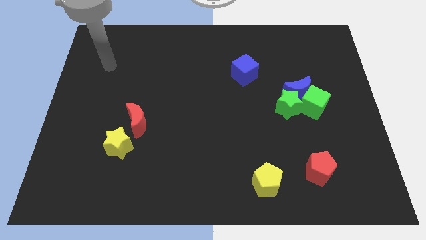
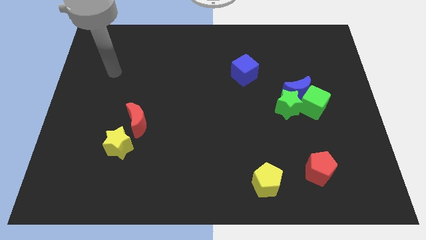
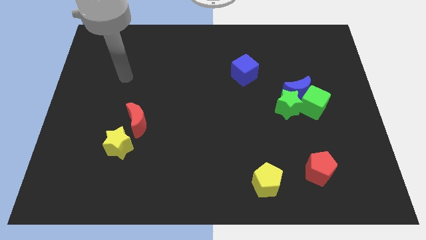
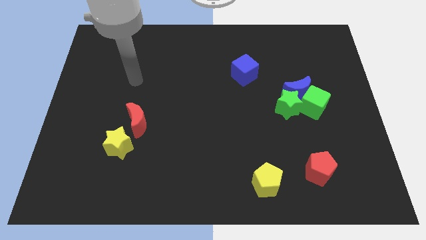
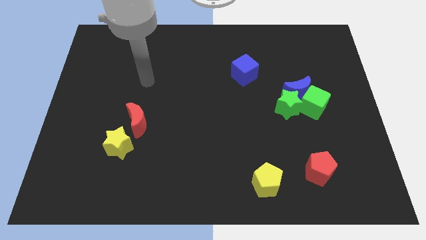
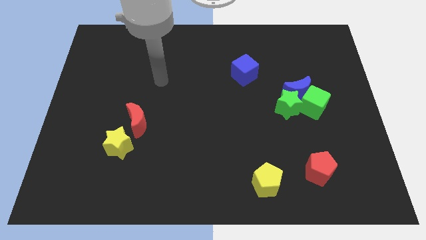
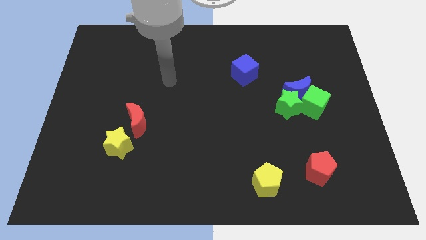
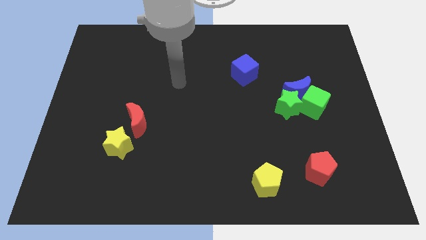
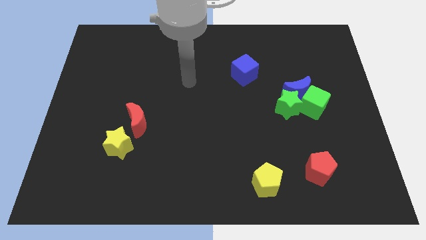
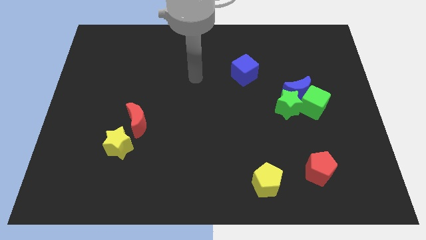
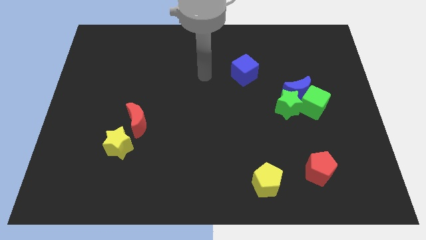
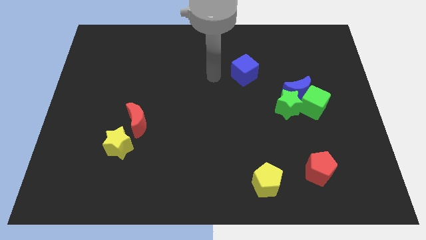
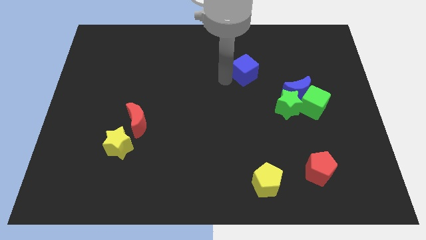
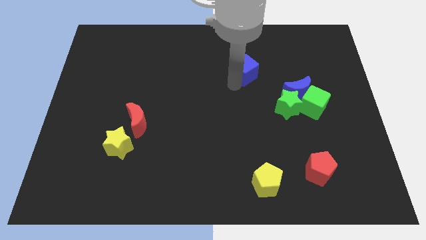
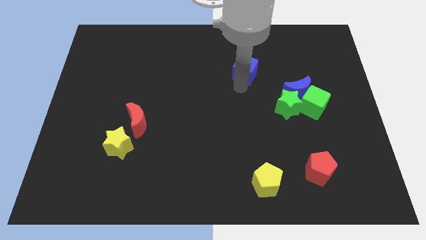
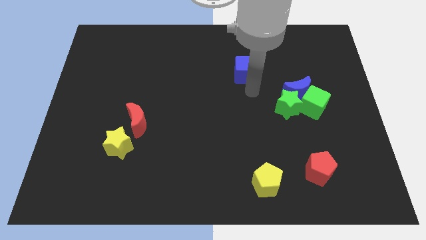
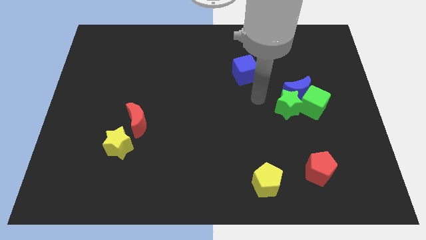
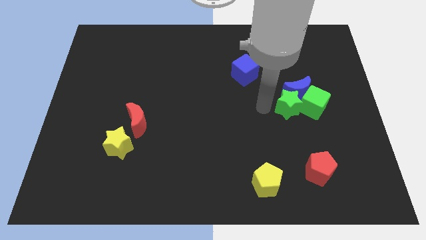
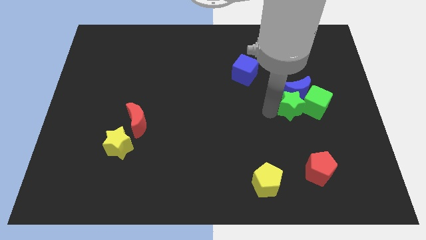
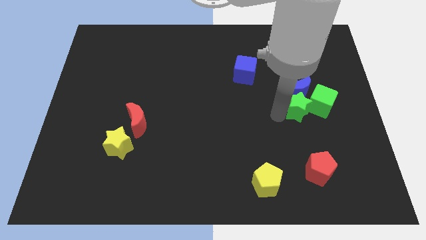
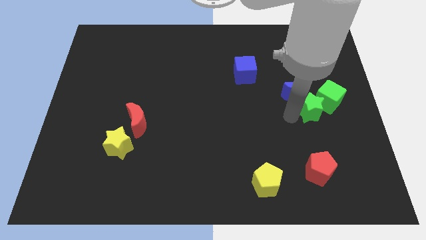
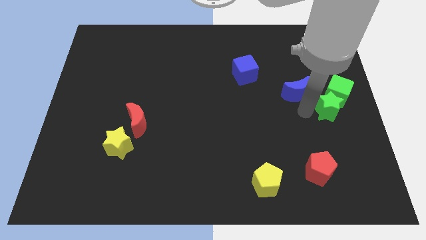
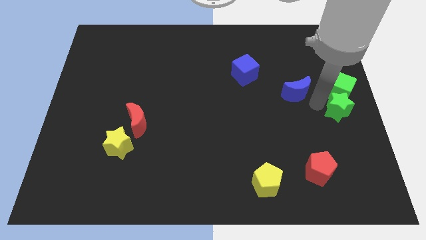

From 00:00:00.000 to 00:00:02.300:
pull the blue moon apart from the green cube and green star

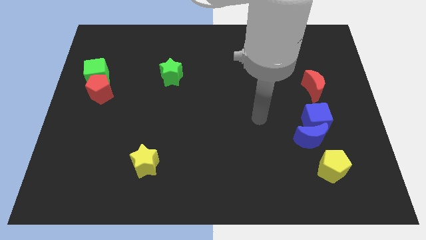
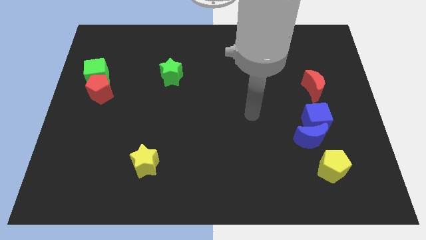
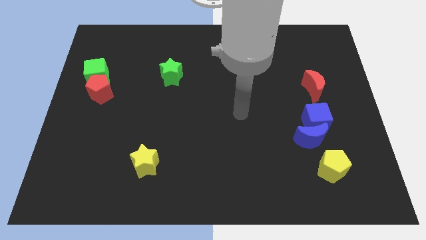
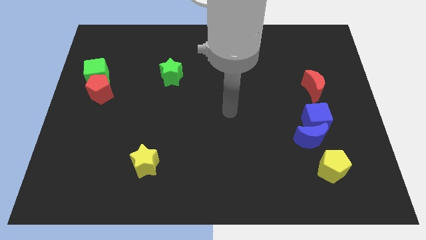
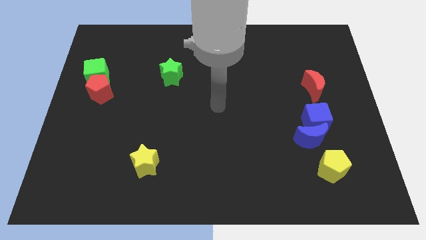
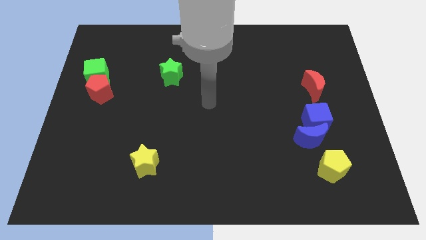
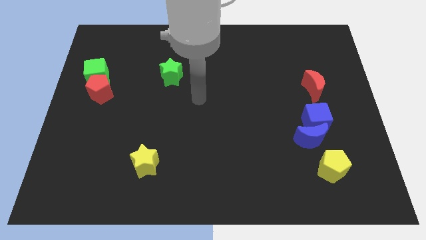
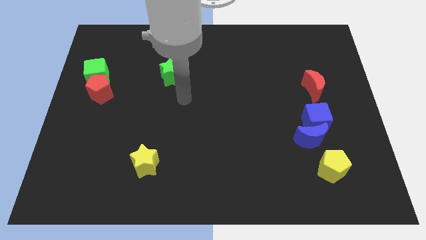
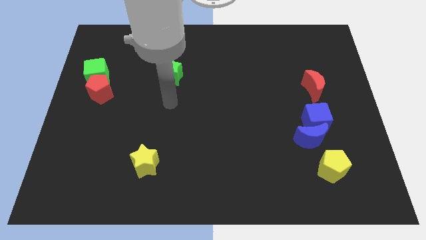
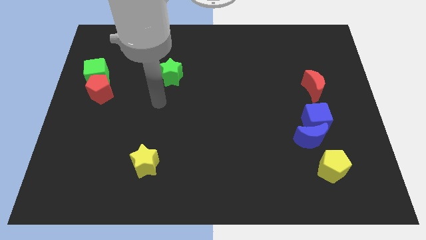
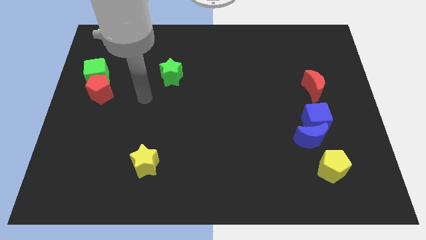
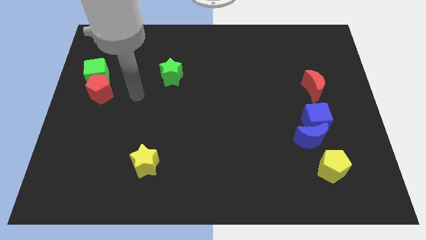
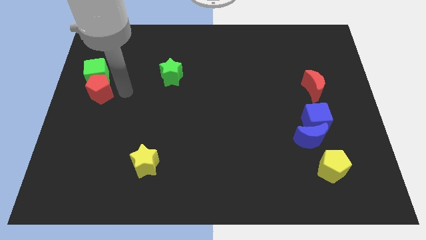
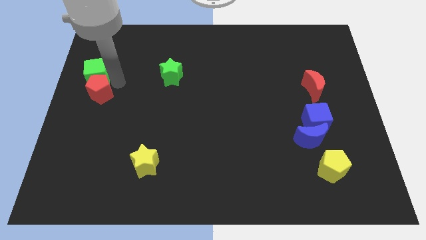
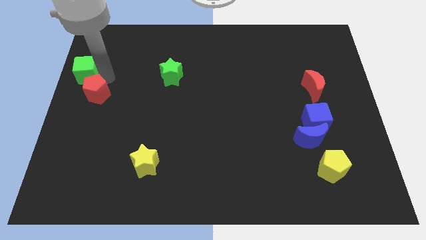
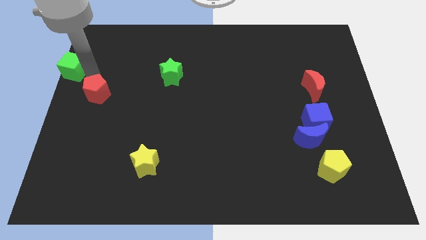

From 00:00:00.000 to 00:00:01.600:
pull the red pentagon apart from the green cube

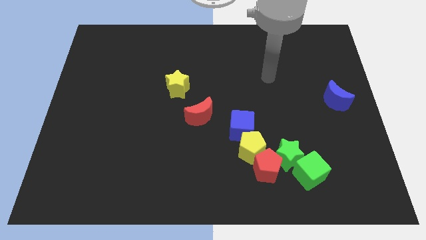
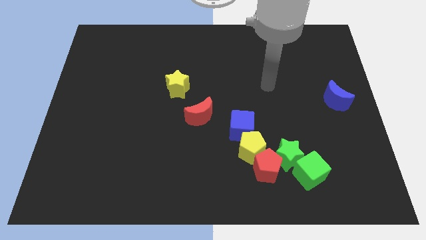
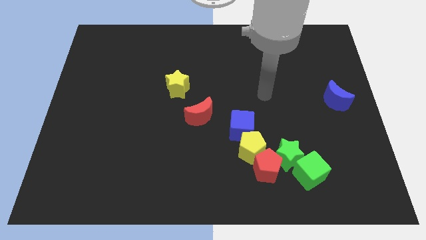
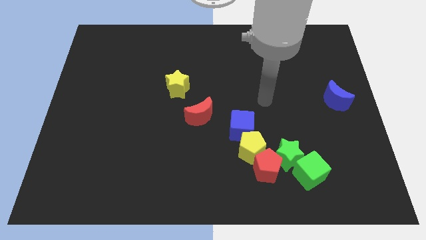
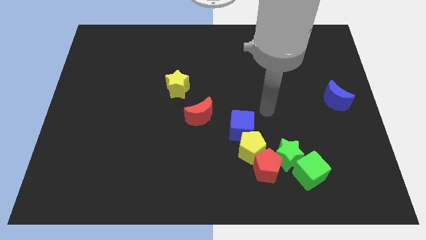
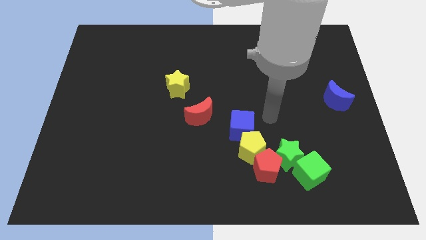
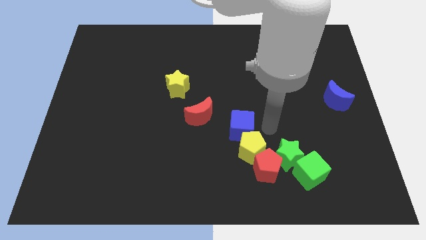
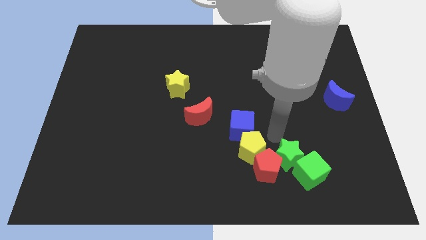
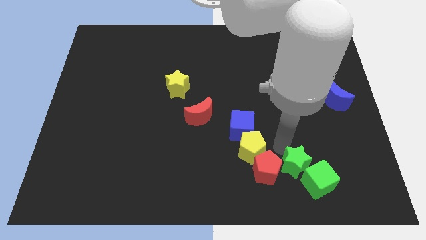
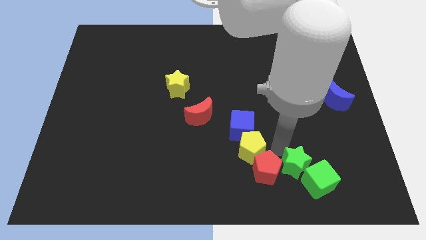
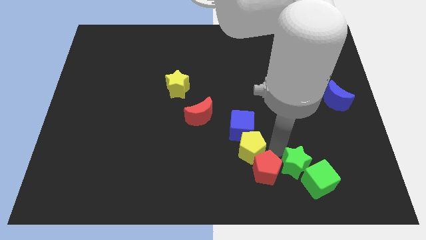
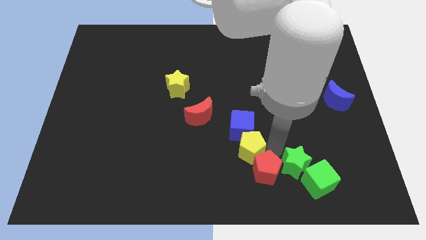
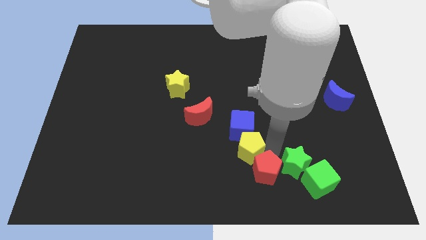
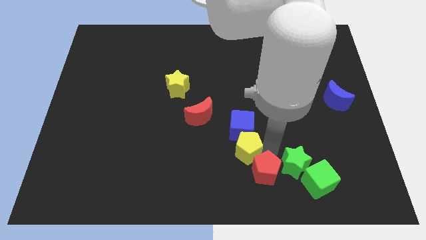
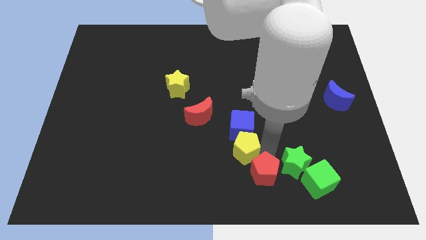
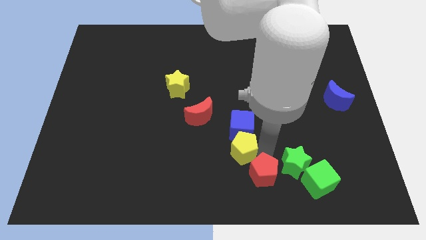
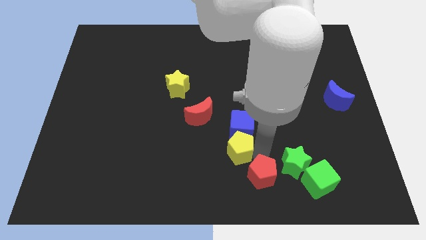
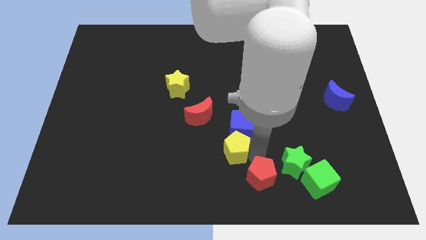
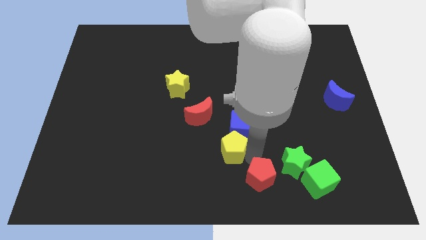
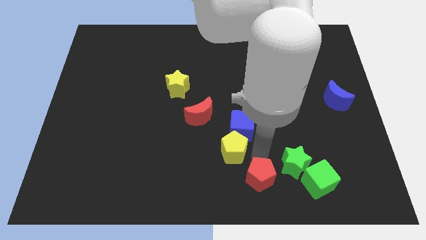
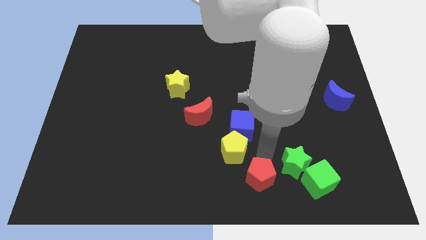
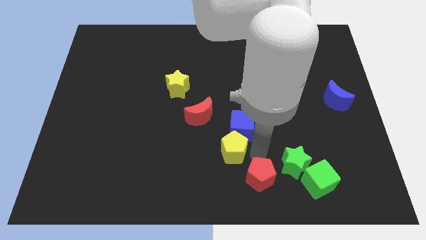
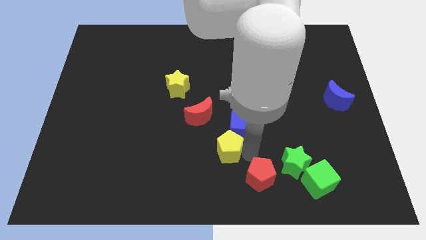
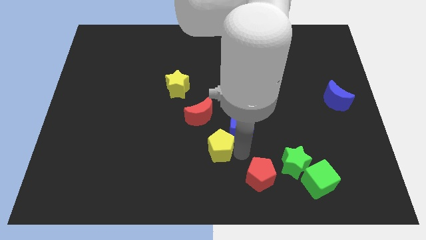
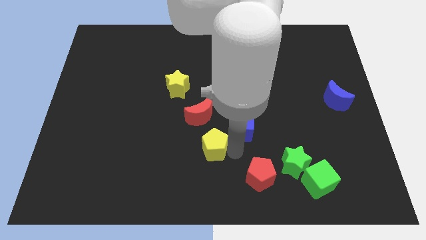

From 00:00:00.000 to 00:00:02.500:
pull the yellow pentagon apart from the group

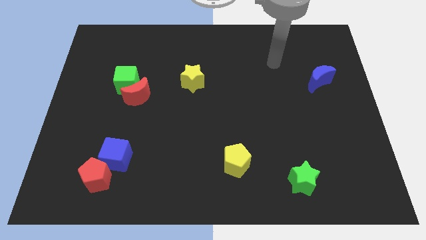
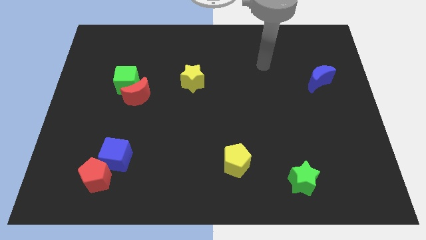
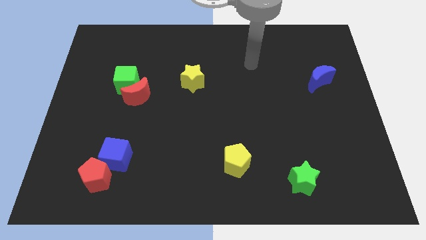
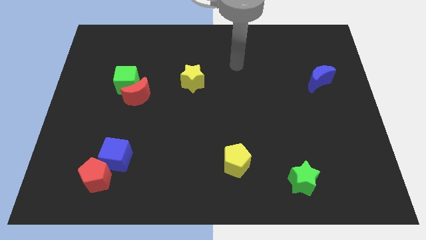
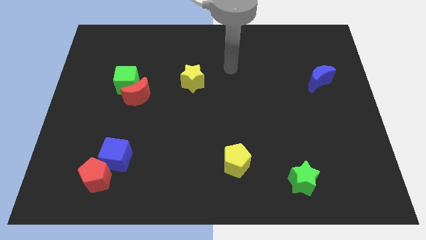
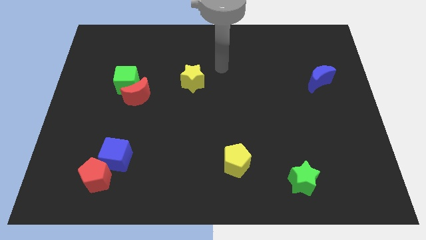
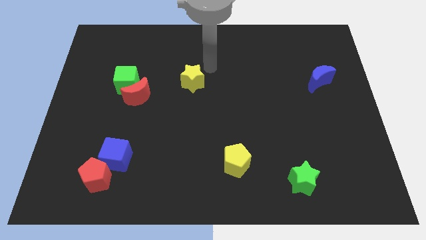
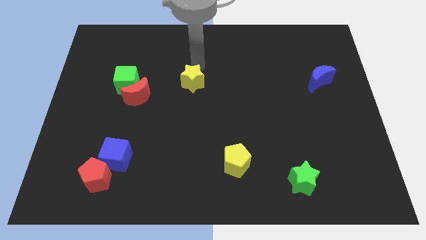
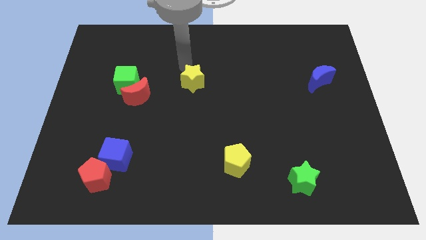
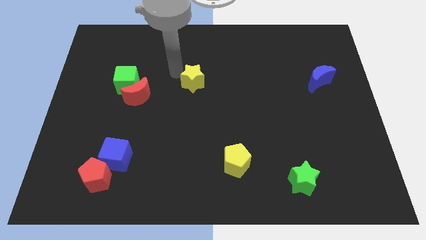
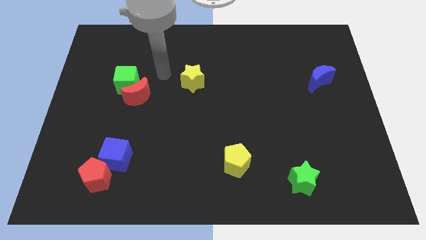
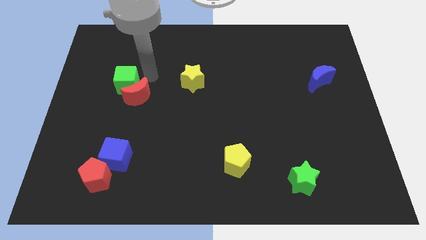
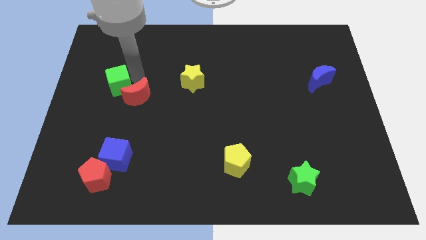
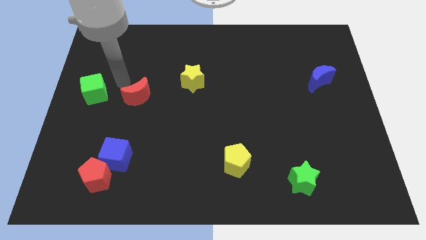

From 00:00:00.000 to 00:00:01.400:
separate the red moon from the green cube

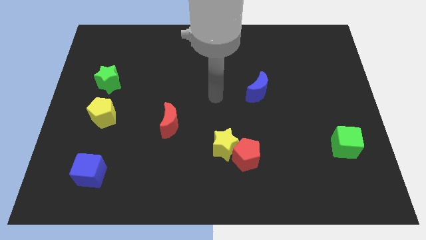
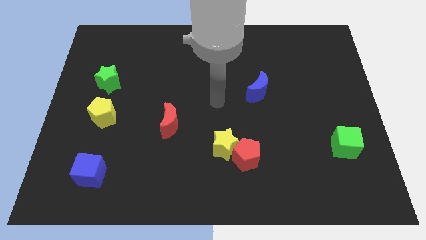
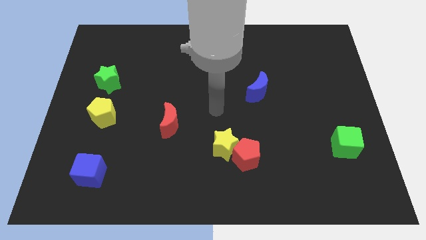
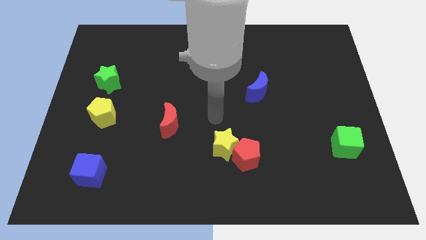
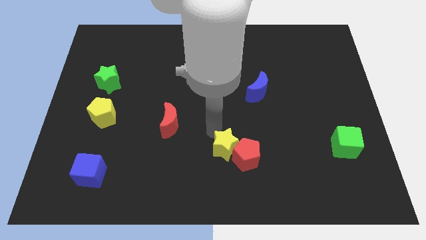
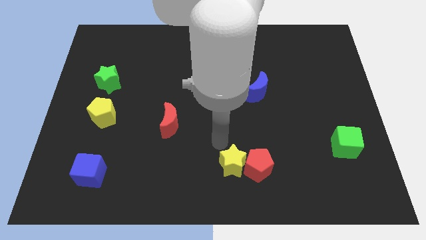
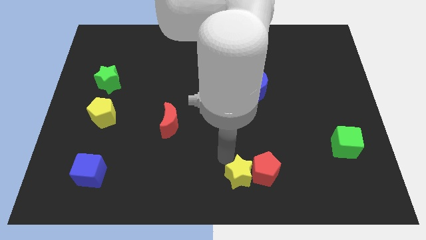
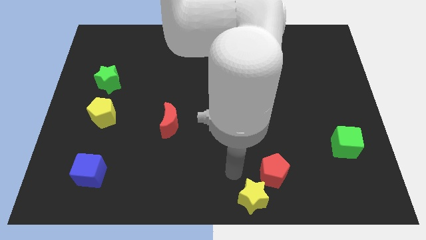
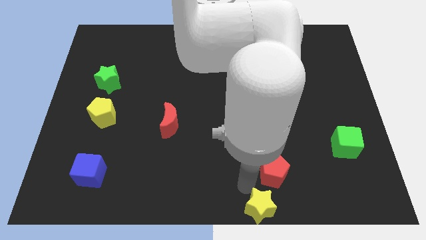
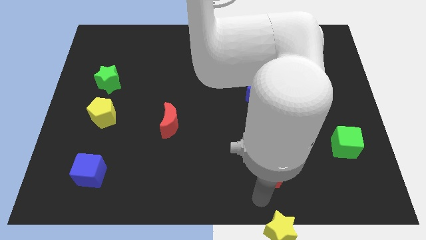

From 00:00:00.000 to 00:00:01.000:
separate the red pentagon from the yellow star

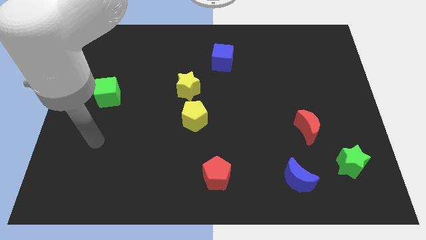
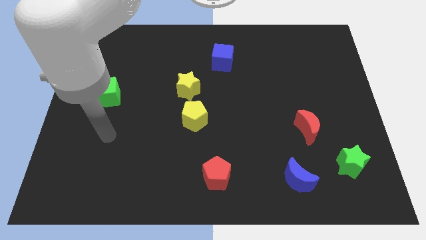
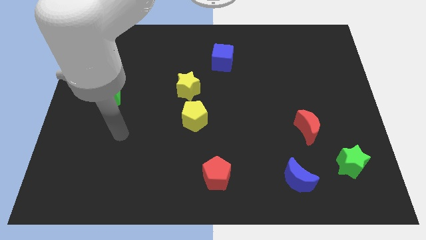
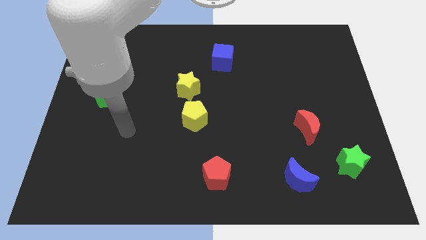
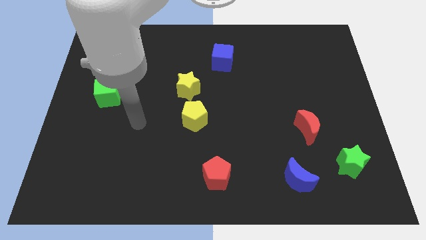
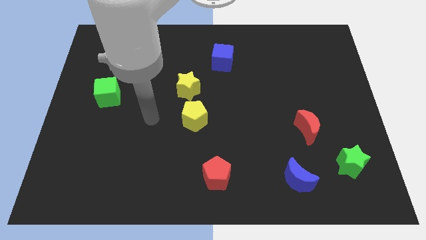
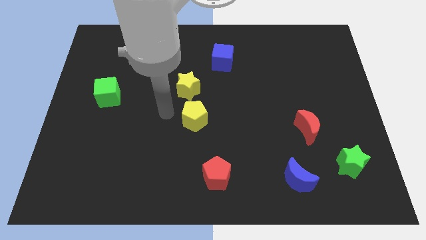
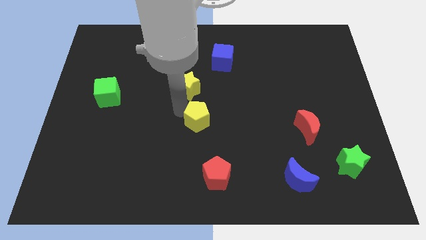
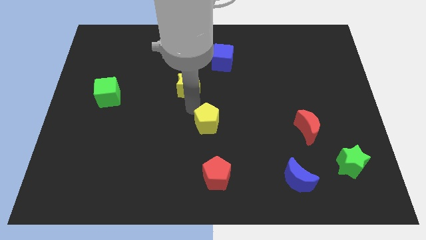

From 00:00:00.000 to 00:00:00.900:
separate the yellow star from the yellow pentagon
